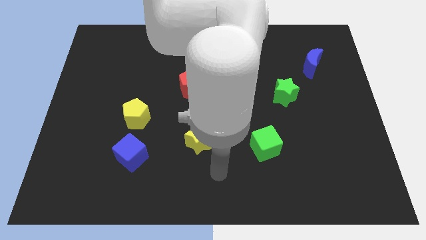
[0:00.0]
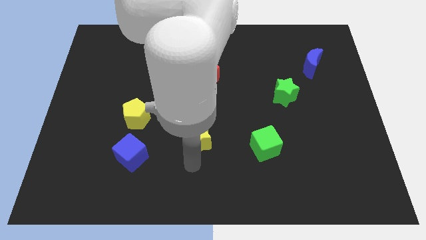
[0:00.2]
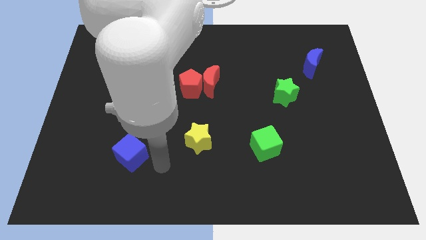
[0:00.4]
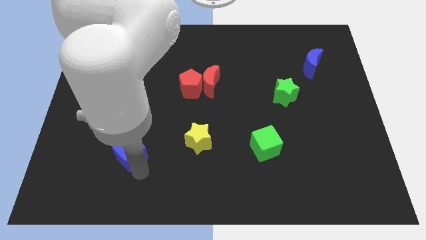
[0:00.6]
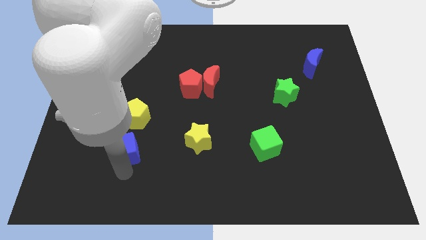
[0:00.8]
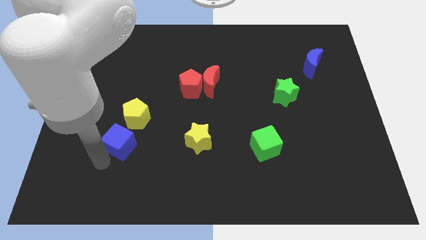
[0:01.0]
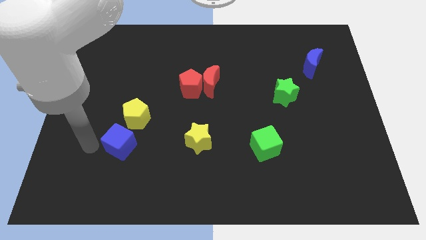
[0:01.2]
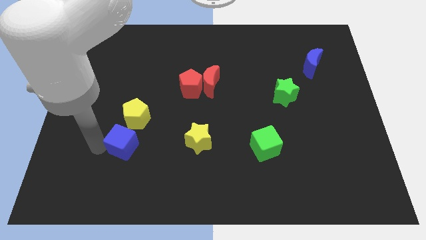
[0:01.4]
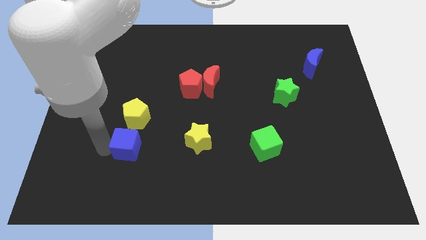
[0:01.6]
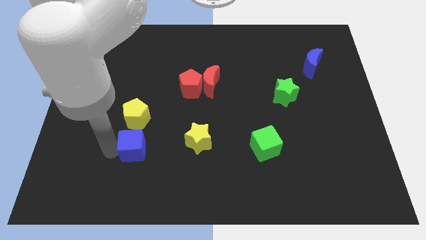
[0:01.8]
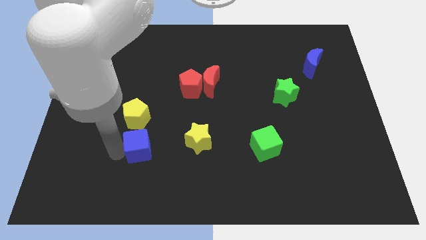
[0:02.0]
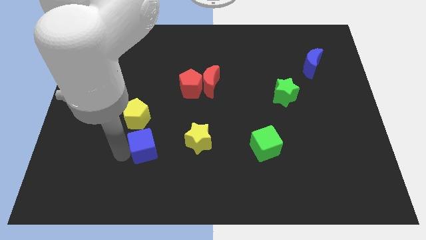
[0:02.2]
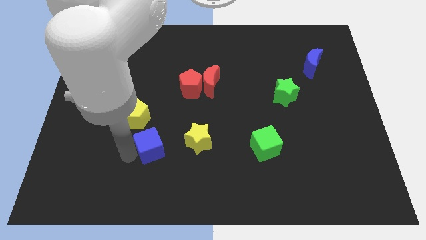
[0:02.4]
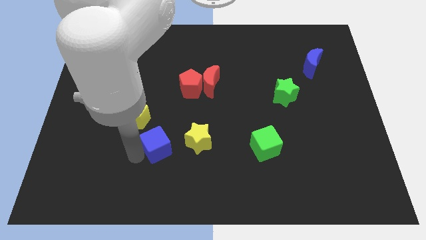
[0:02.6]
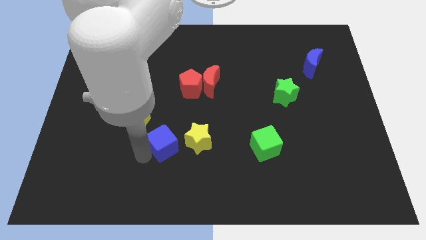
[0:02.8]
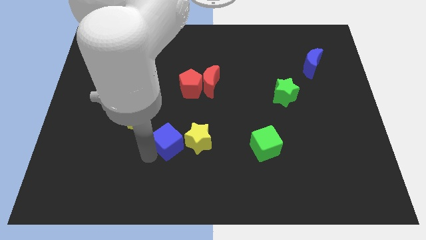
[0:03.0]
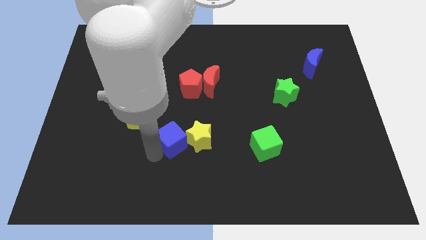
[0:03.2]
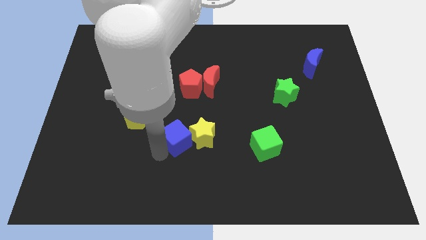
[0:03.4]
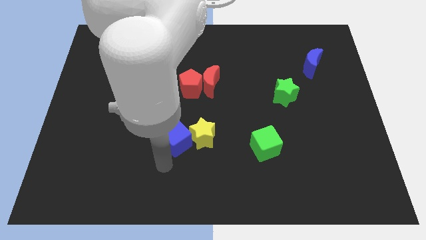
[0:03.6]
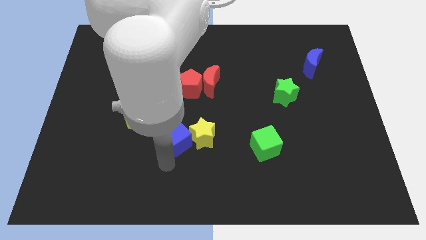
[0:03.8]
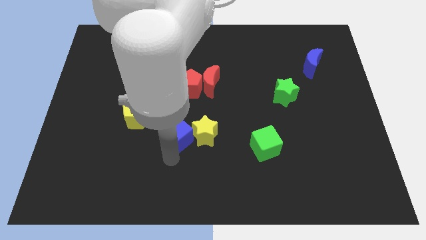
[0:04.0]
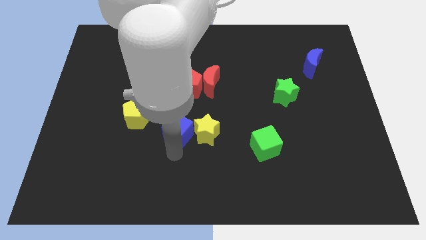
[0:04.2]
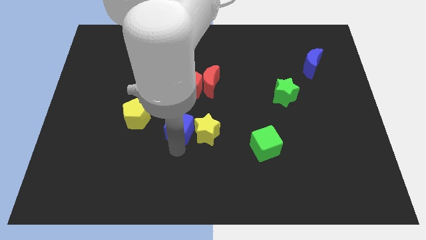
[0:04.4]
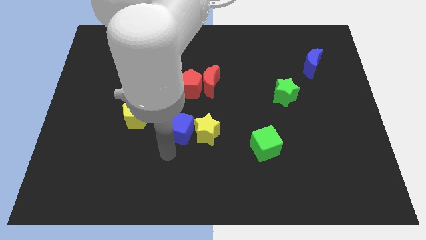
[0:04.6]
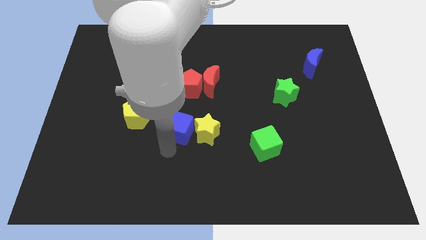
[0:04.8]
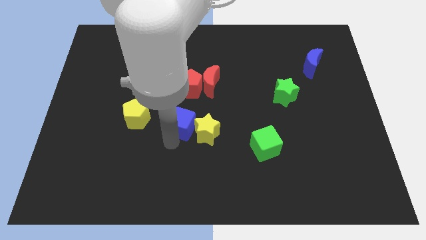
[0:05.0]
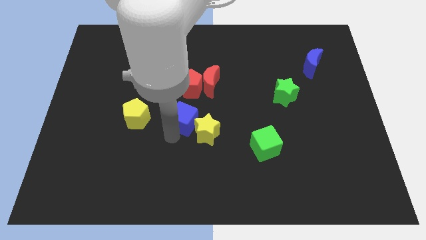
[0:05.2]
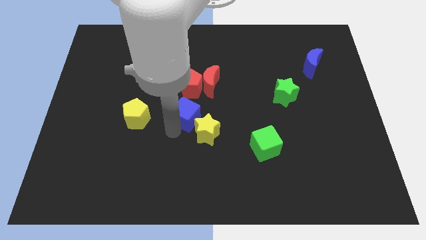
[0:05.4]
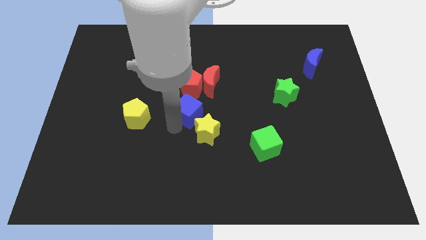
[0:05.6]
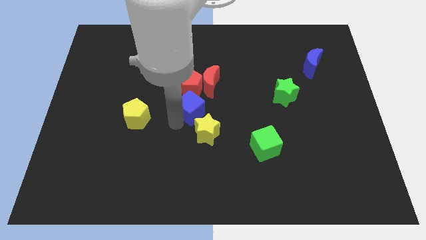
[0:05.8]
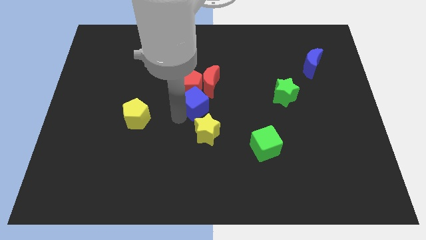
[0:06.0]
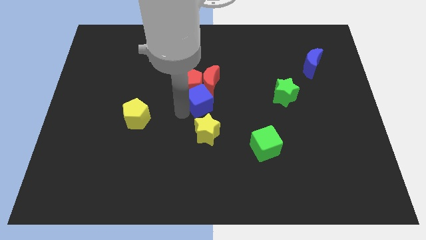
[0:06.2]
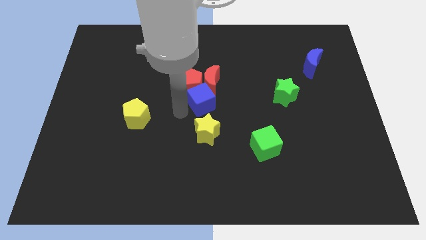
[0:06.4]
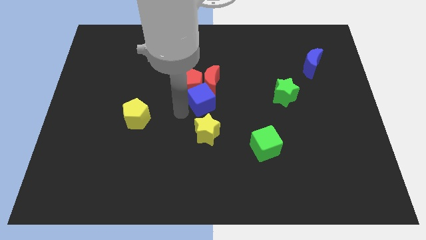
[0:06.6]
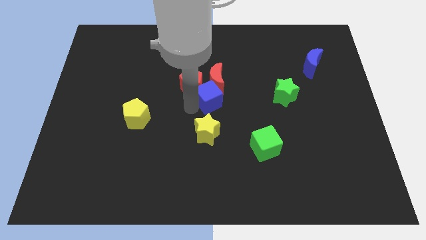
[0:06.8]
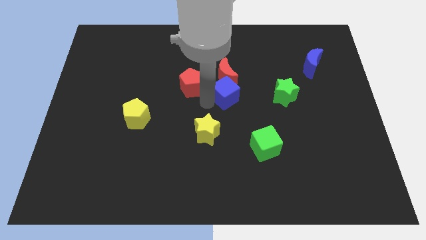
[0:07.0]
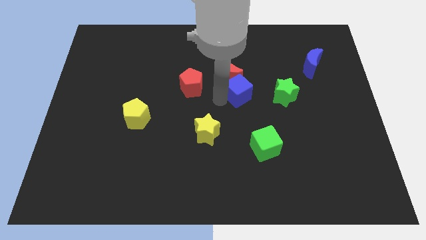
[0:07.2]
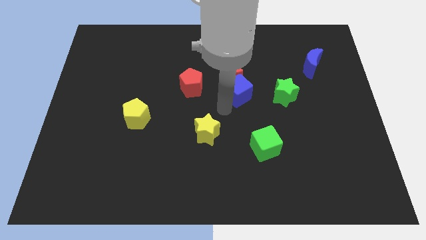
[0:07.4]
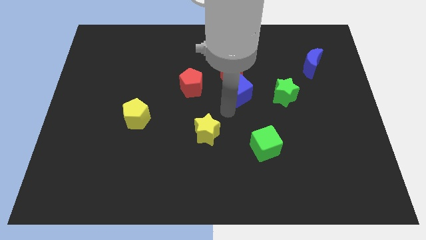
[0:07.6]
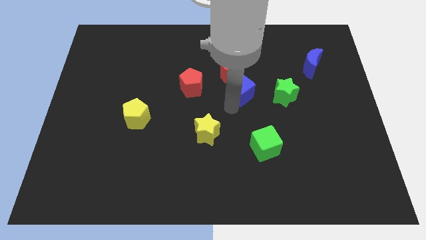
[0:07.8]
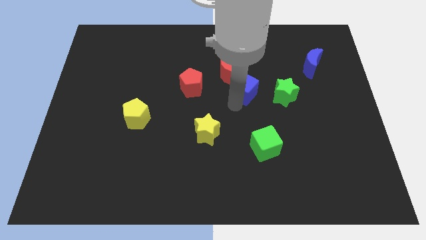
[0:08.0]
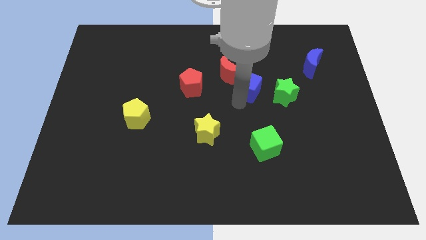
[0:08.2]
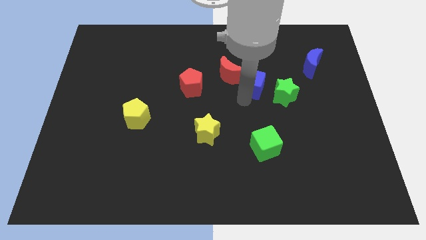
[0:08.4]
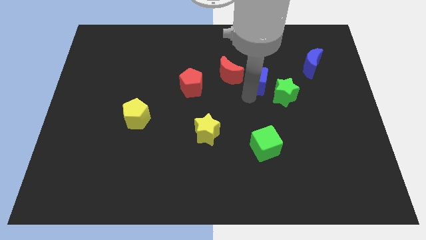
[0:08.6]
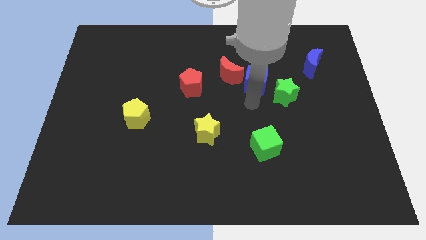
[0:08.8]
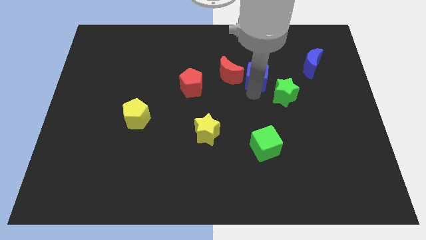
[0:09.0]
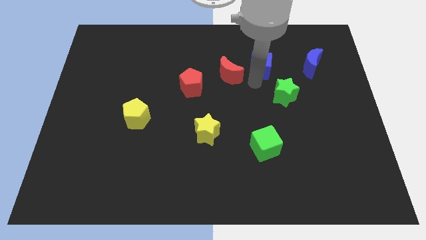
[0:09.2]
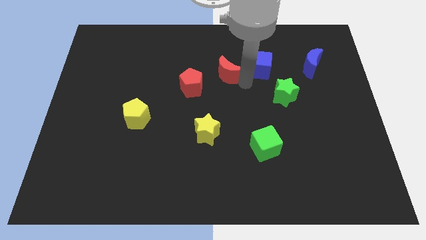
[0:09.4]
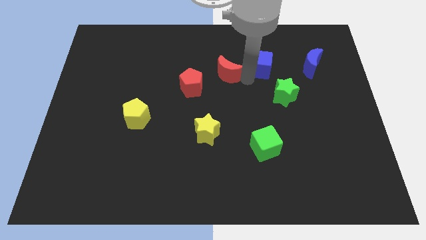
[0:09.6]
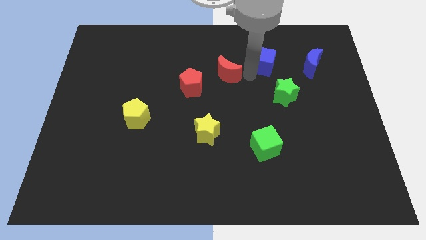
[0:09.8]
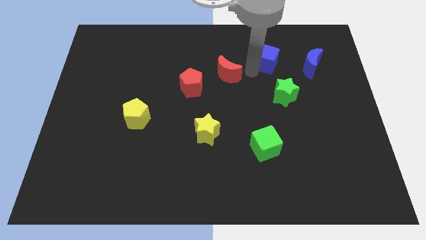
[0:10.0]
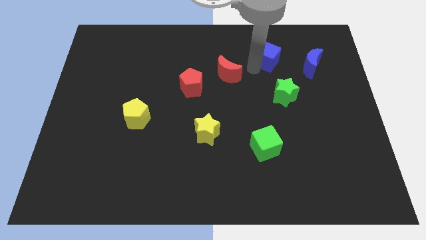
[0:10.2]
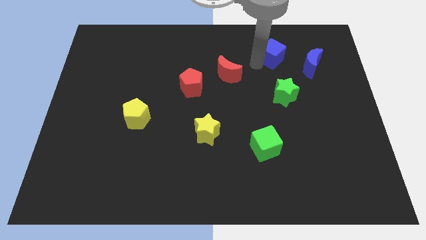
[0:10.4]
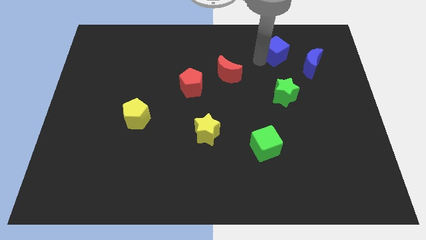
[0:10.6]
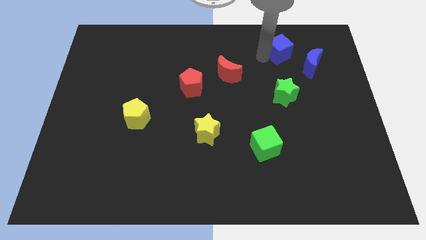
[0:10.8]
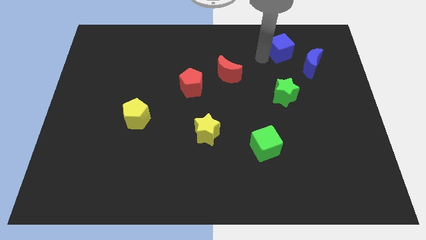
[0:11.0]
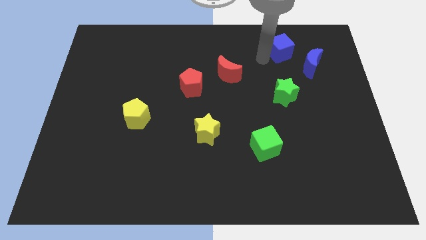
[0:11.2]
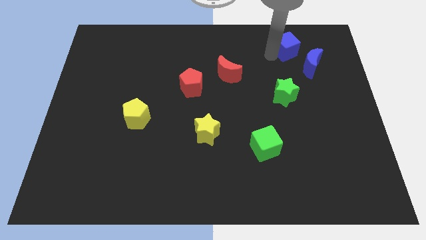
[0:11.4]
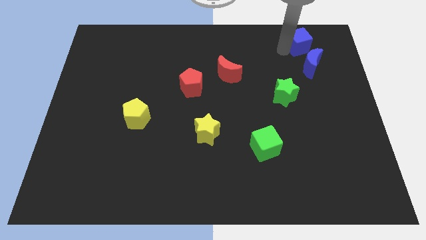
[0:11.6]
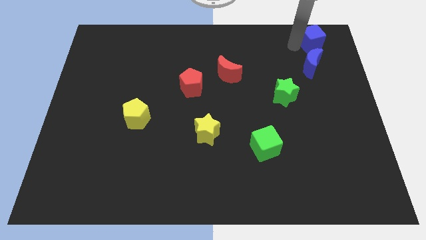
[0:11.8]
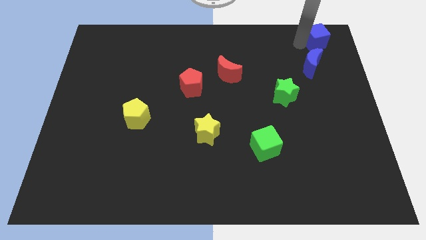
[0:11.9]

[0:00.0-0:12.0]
move the blue cube to the upper right corner

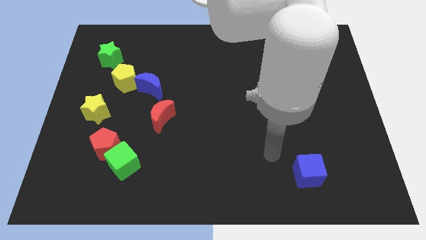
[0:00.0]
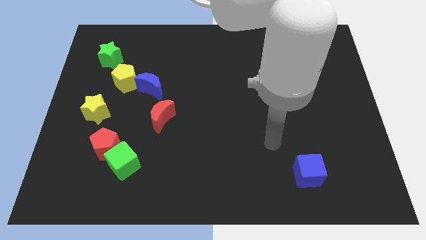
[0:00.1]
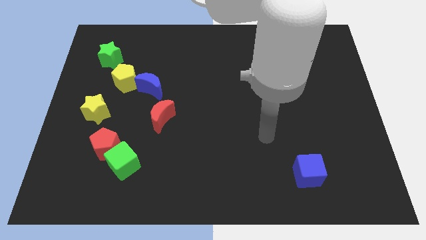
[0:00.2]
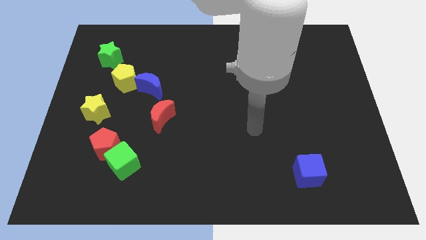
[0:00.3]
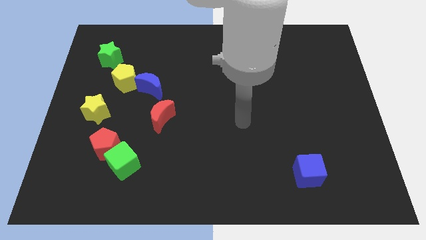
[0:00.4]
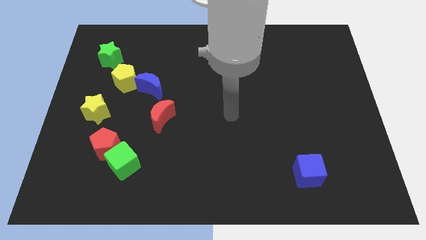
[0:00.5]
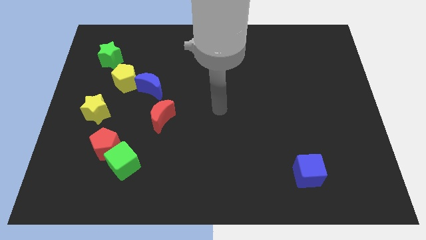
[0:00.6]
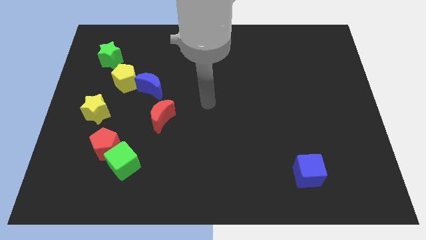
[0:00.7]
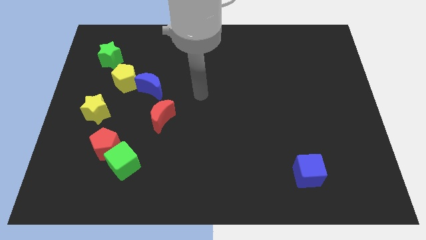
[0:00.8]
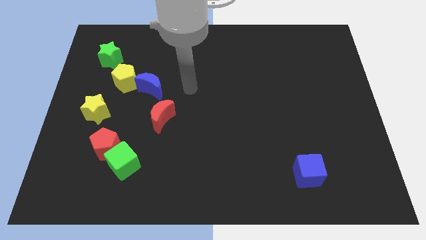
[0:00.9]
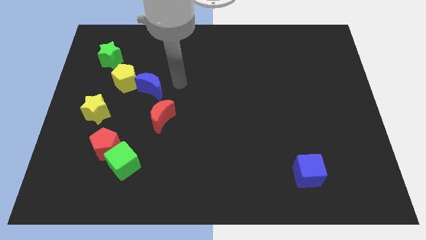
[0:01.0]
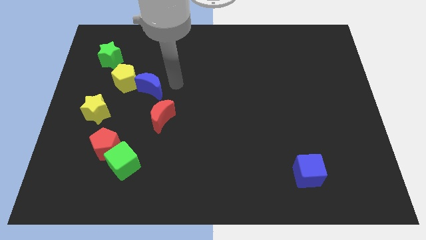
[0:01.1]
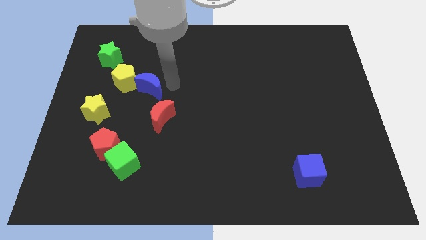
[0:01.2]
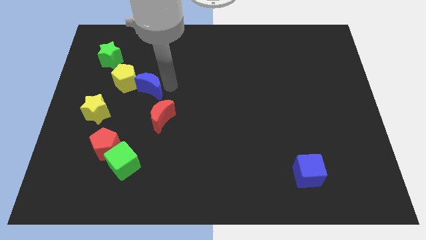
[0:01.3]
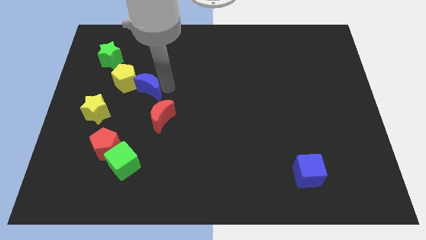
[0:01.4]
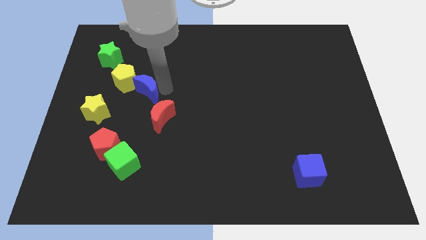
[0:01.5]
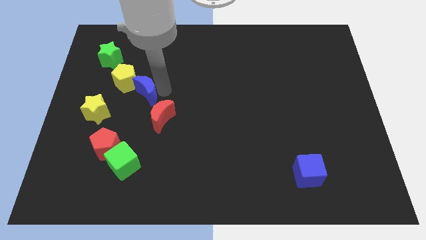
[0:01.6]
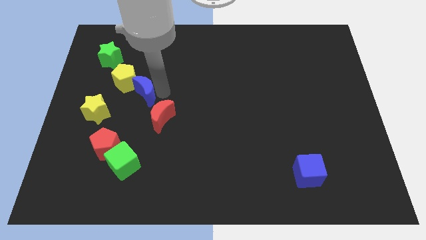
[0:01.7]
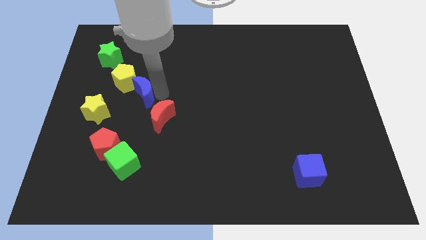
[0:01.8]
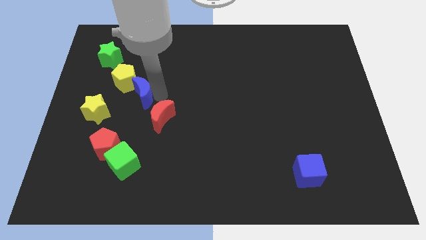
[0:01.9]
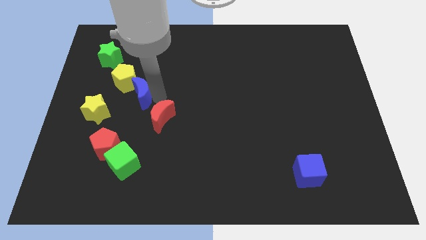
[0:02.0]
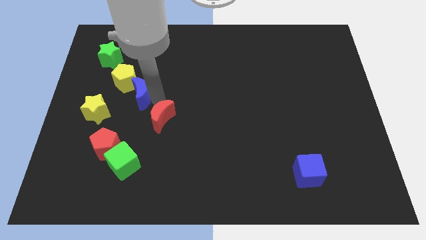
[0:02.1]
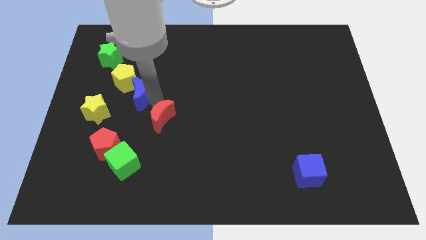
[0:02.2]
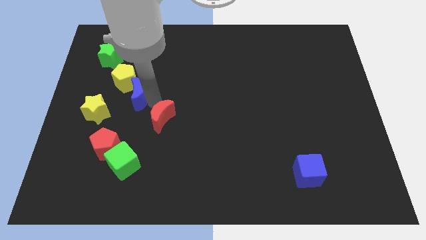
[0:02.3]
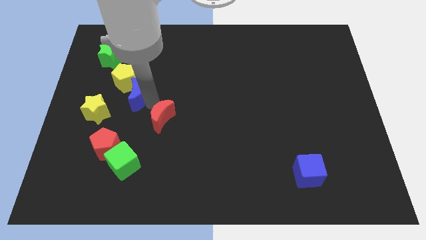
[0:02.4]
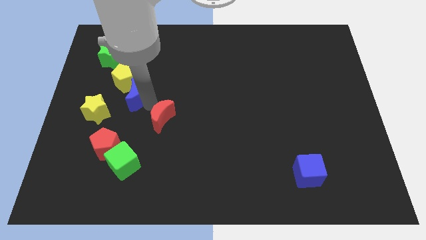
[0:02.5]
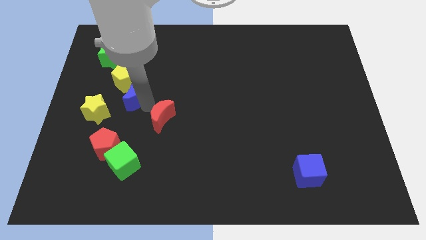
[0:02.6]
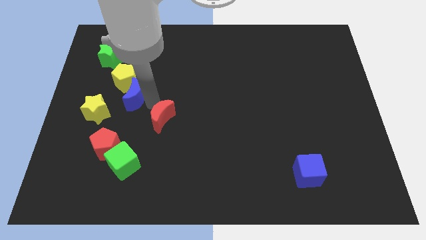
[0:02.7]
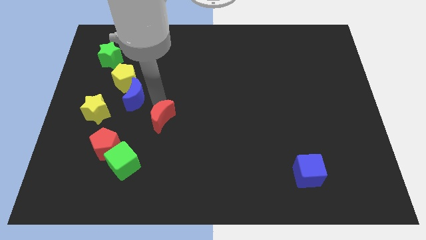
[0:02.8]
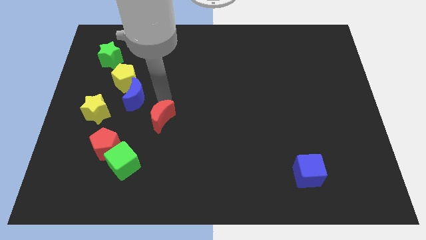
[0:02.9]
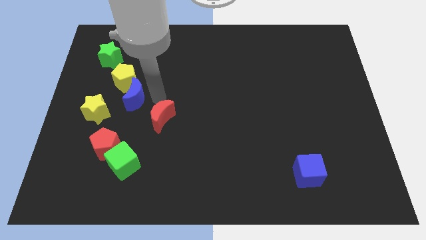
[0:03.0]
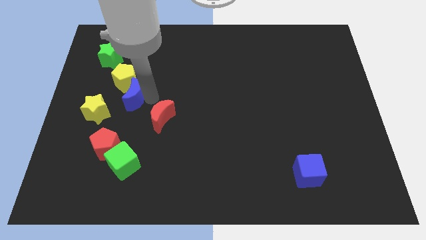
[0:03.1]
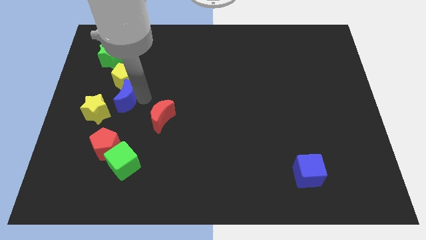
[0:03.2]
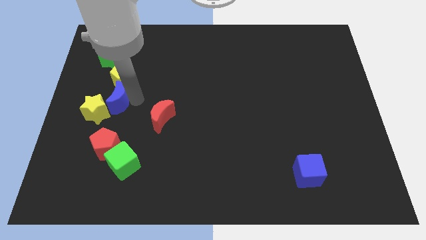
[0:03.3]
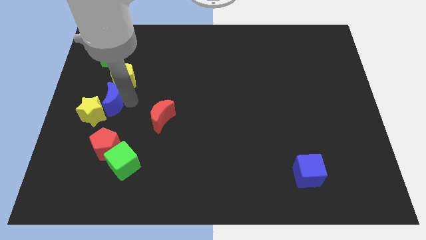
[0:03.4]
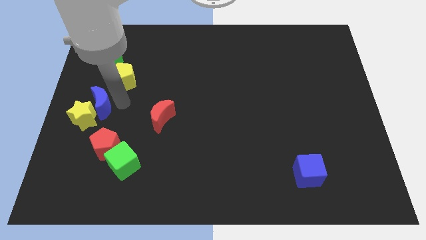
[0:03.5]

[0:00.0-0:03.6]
slide the blue moon to the center left
